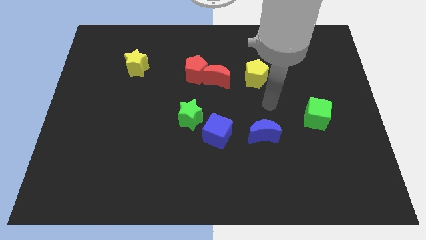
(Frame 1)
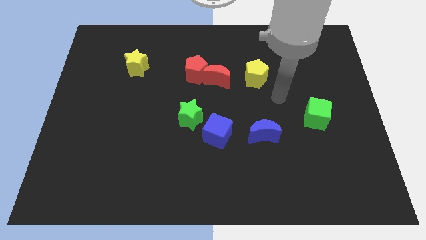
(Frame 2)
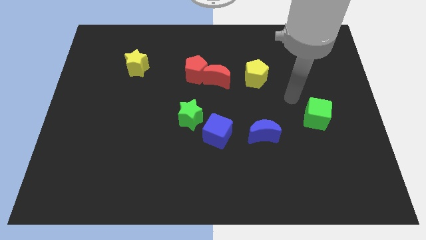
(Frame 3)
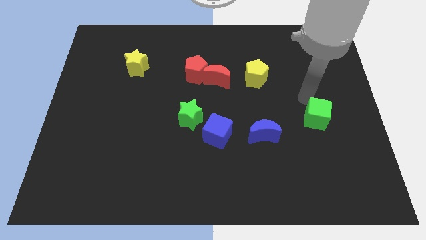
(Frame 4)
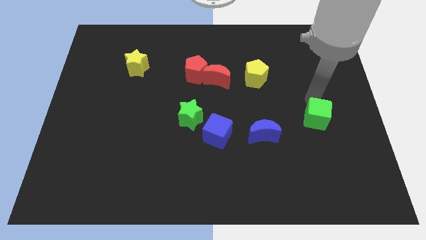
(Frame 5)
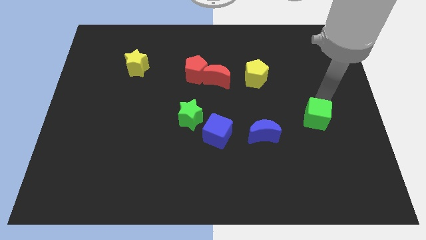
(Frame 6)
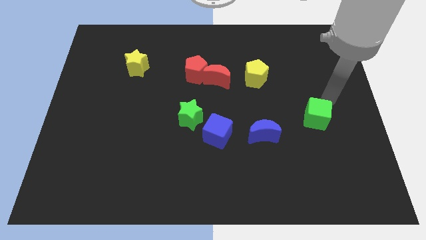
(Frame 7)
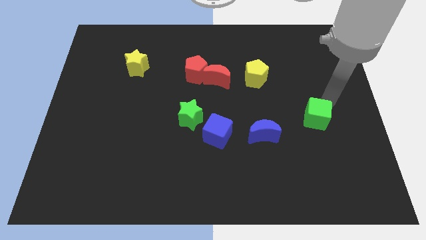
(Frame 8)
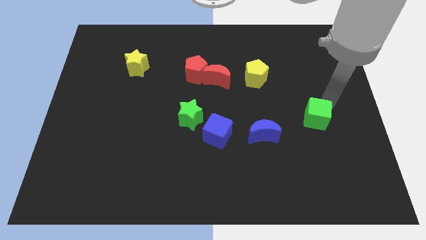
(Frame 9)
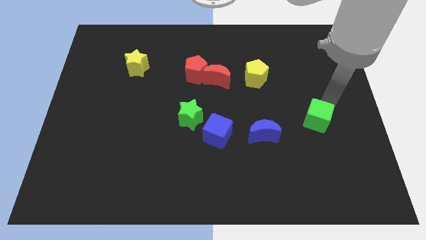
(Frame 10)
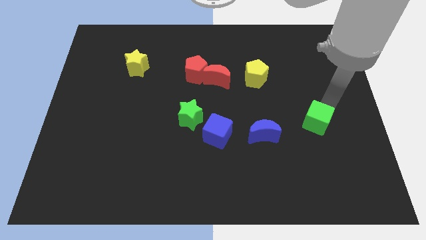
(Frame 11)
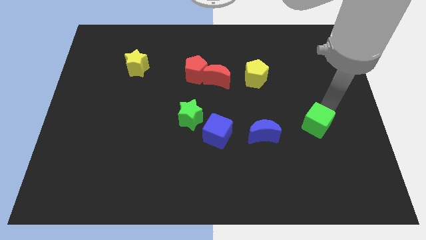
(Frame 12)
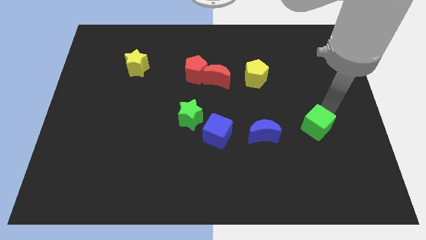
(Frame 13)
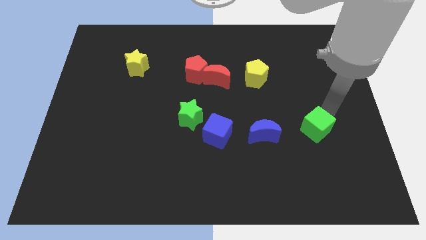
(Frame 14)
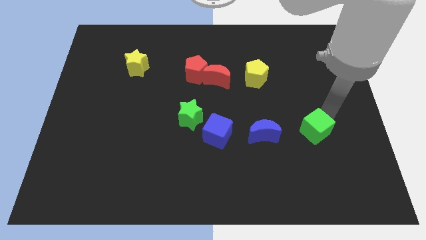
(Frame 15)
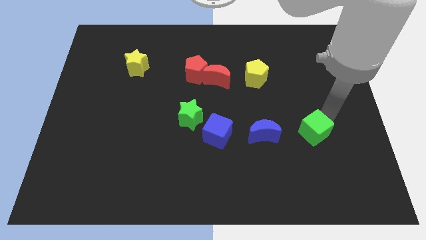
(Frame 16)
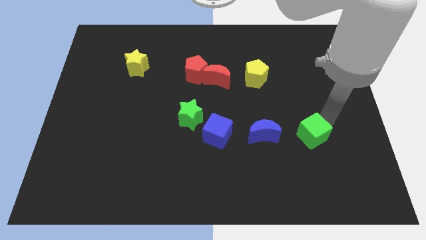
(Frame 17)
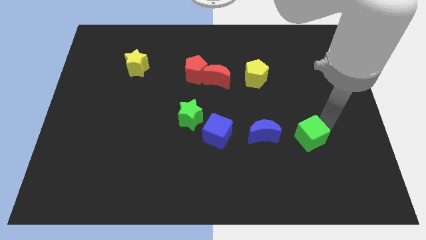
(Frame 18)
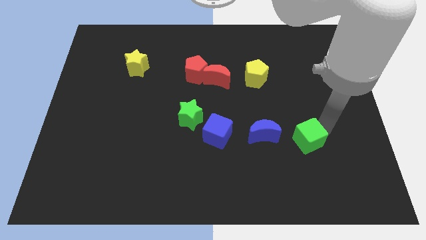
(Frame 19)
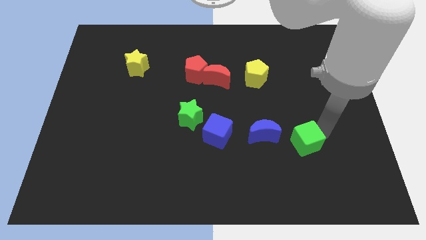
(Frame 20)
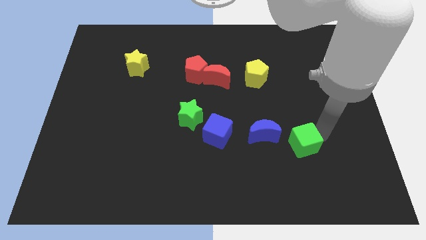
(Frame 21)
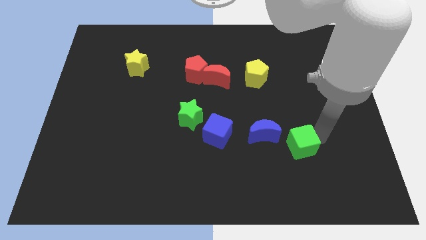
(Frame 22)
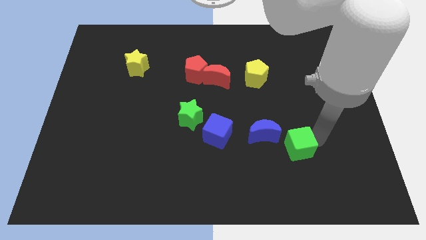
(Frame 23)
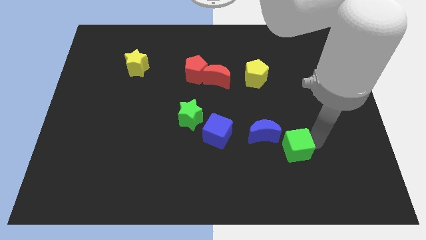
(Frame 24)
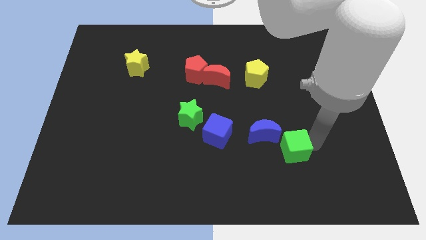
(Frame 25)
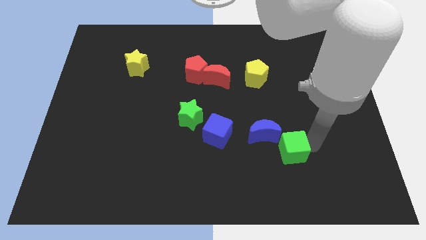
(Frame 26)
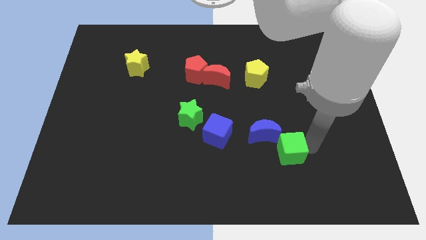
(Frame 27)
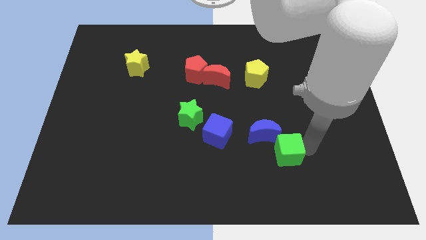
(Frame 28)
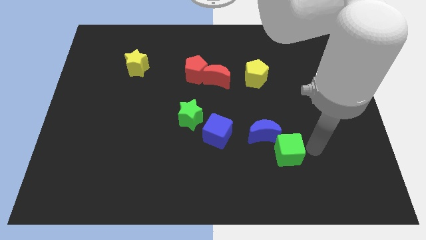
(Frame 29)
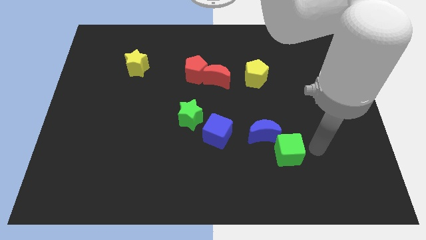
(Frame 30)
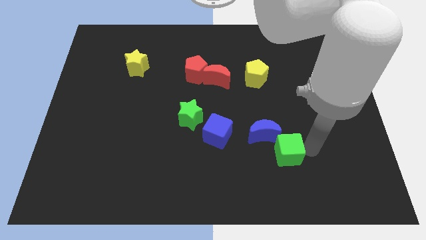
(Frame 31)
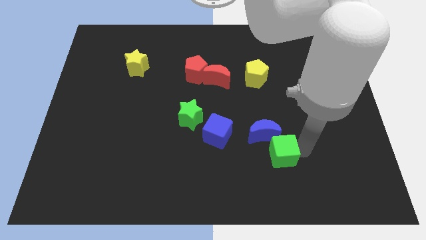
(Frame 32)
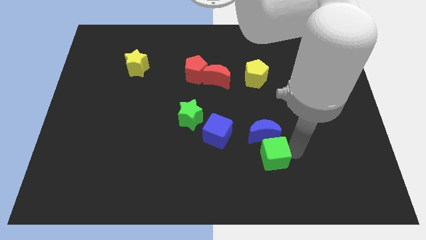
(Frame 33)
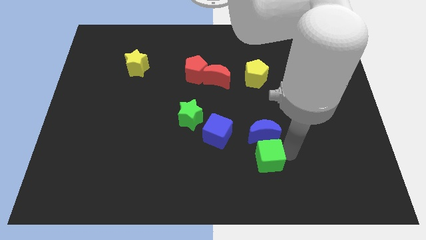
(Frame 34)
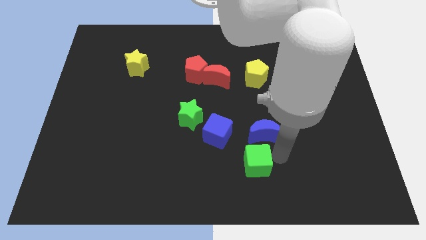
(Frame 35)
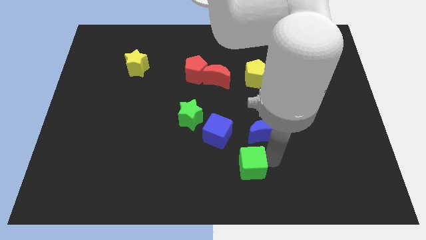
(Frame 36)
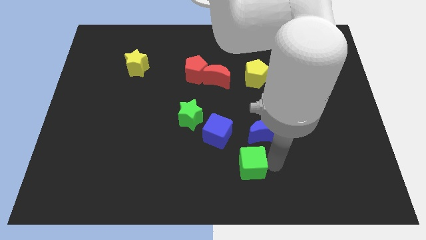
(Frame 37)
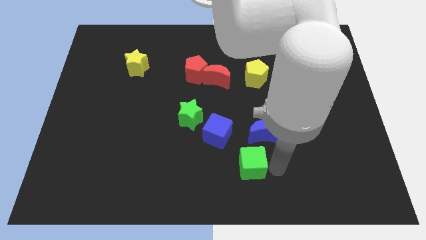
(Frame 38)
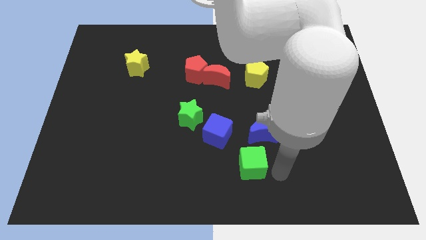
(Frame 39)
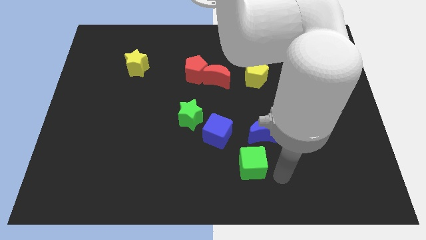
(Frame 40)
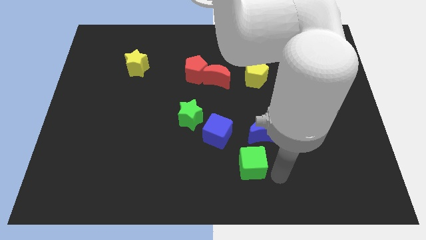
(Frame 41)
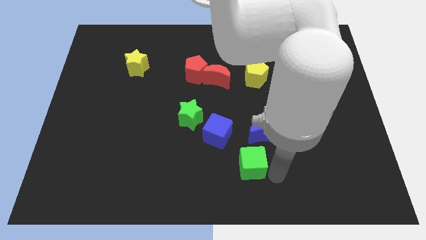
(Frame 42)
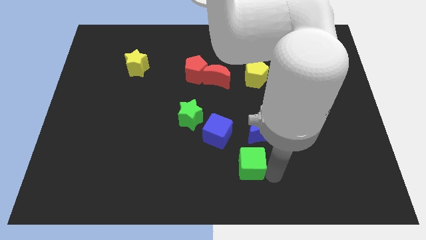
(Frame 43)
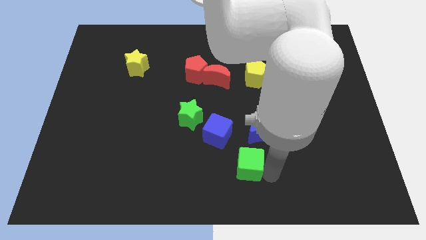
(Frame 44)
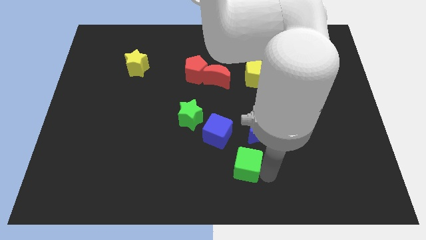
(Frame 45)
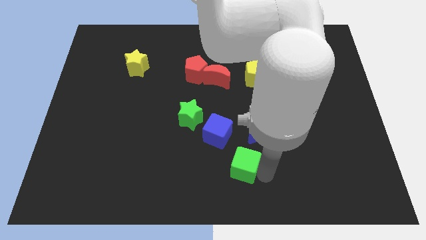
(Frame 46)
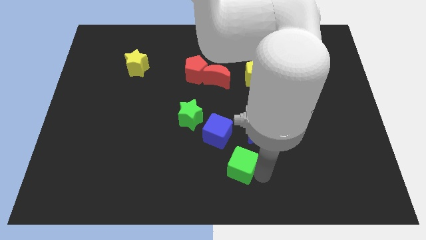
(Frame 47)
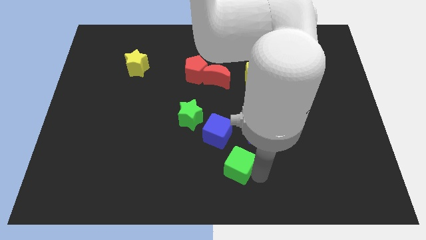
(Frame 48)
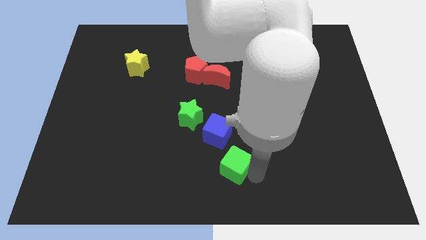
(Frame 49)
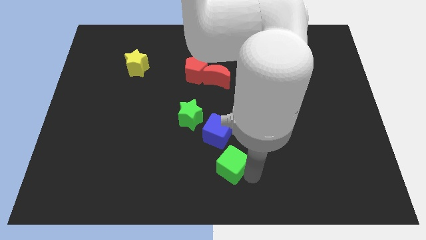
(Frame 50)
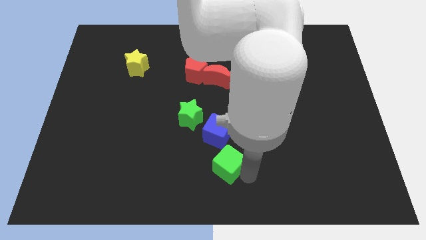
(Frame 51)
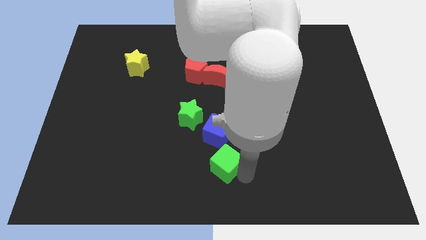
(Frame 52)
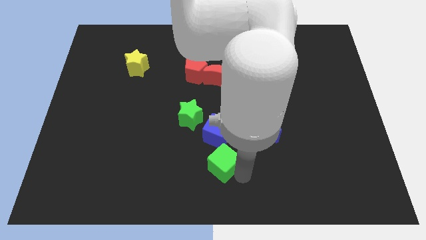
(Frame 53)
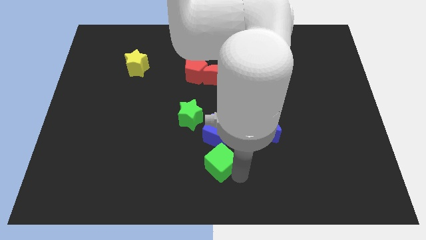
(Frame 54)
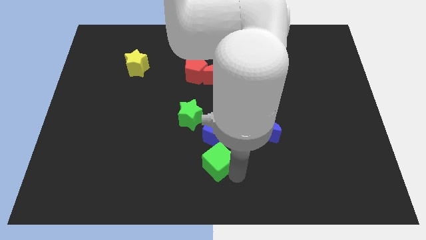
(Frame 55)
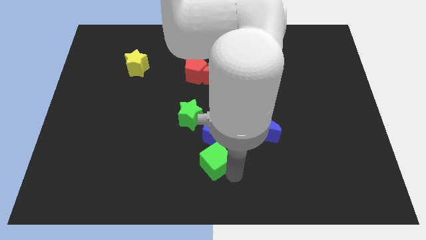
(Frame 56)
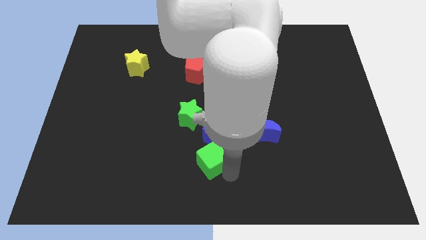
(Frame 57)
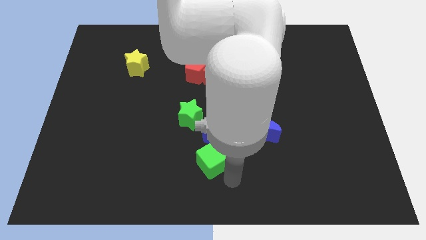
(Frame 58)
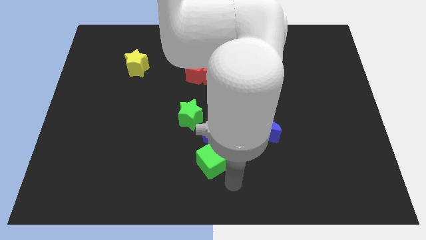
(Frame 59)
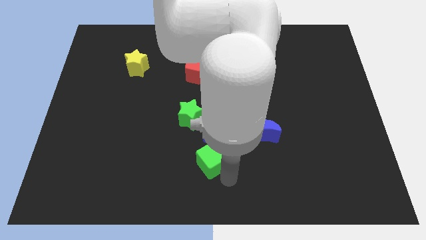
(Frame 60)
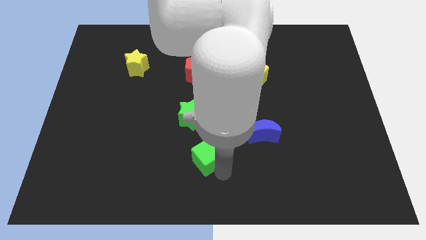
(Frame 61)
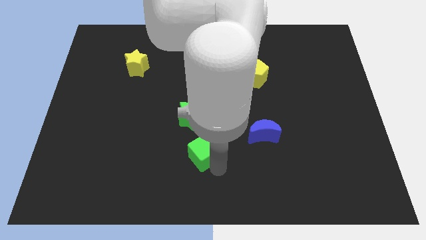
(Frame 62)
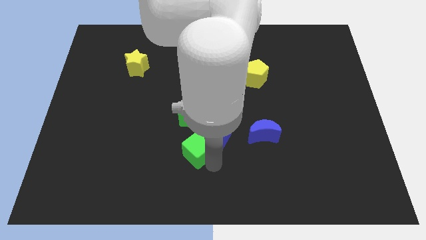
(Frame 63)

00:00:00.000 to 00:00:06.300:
slide the green cube just left of the blue cube

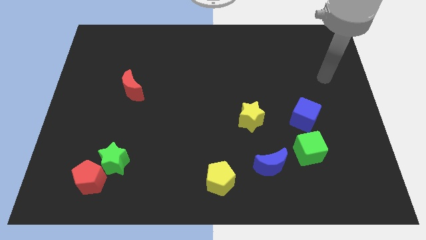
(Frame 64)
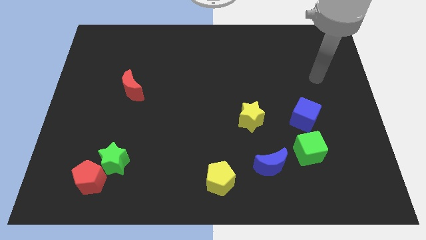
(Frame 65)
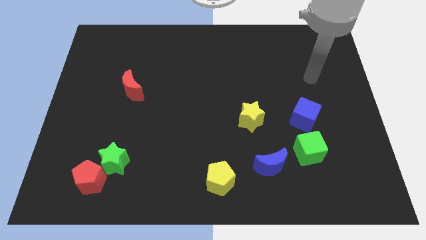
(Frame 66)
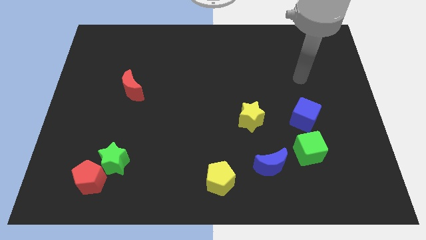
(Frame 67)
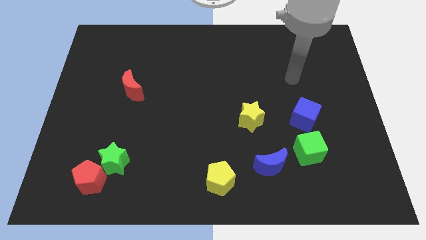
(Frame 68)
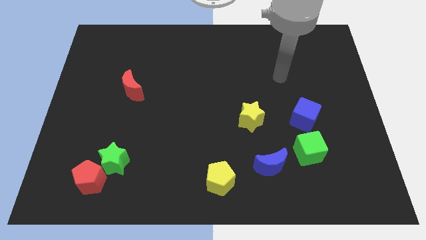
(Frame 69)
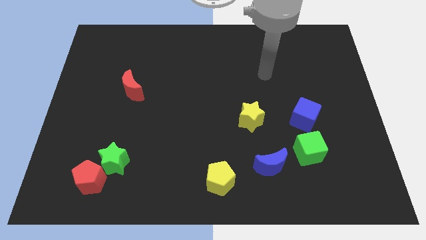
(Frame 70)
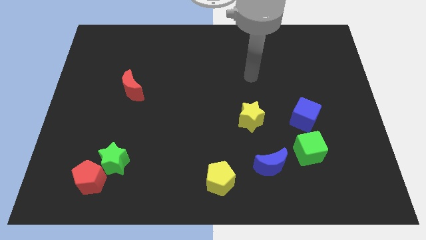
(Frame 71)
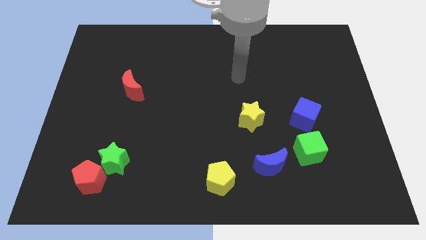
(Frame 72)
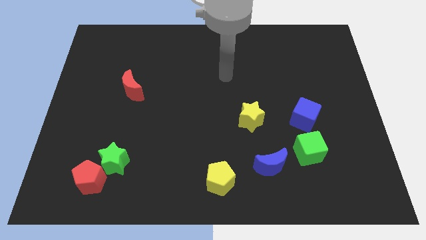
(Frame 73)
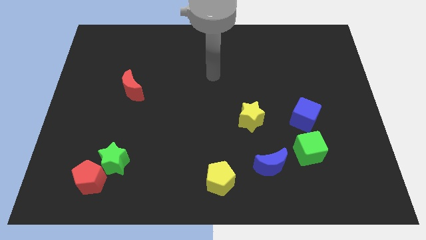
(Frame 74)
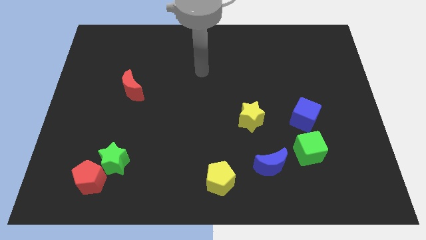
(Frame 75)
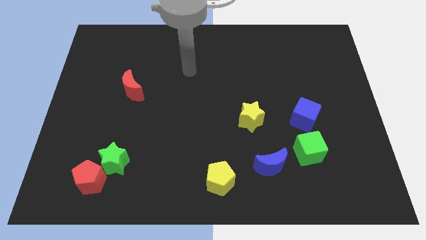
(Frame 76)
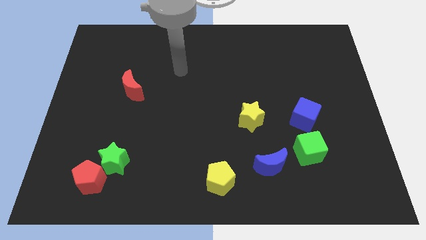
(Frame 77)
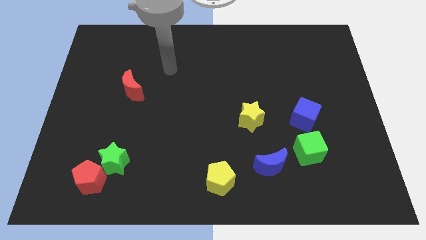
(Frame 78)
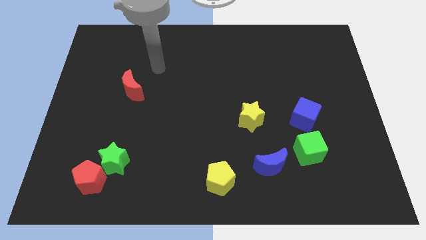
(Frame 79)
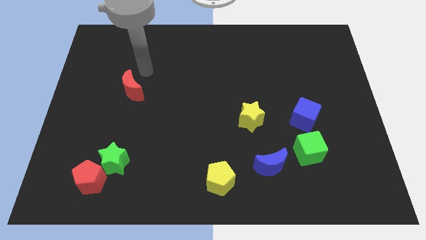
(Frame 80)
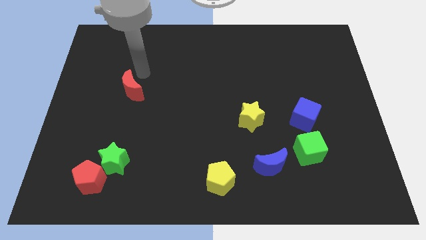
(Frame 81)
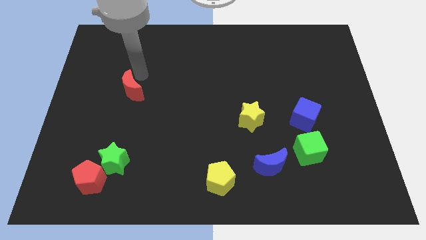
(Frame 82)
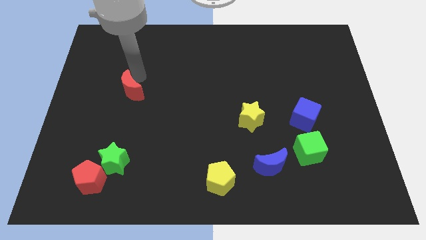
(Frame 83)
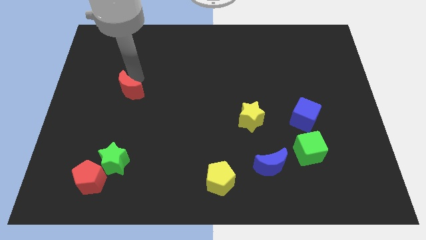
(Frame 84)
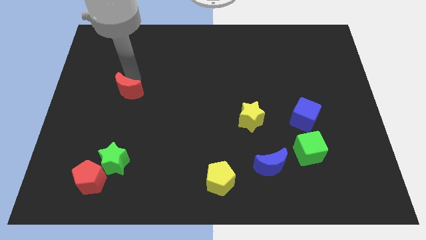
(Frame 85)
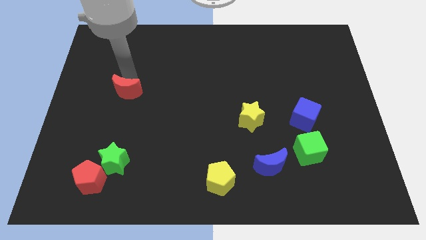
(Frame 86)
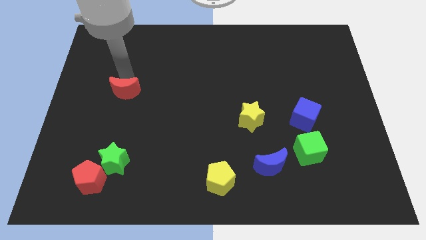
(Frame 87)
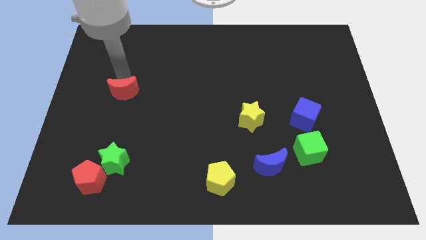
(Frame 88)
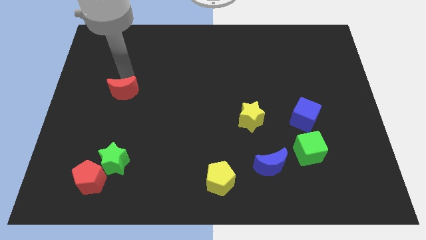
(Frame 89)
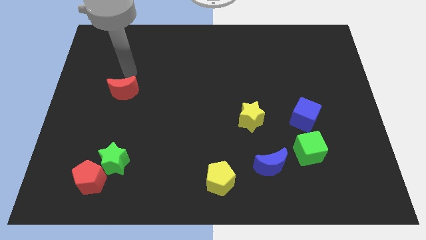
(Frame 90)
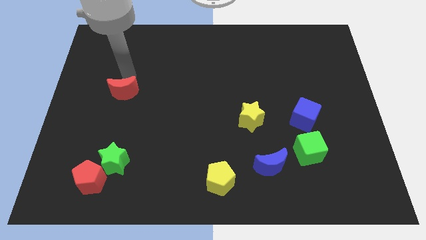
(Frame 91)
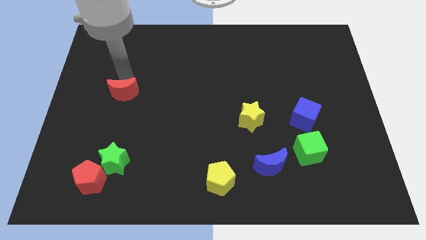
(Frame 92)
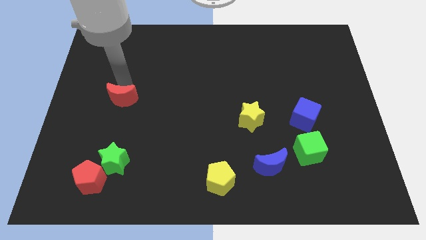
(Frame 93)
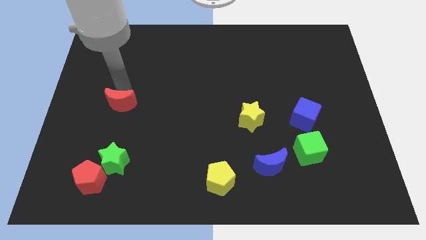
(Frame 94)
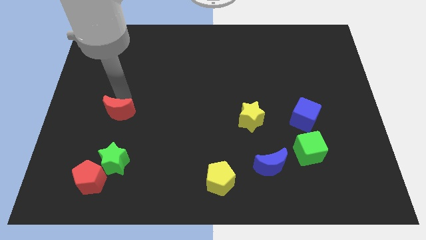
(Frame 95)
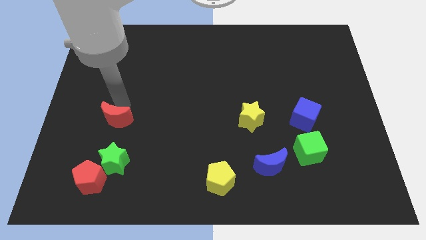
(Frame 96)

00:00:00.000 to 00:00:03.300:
slide the red moon above the red pentagon
